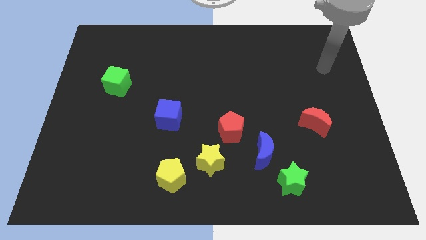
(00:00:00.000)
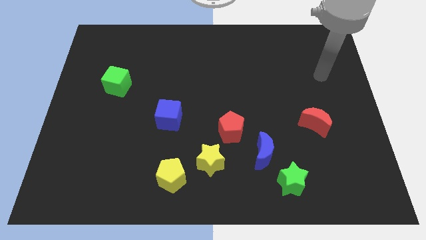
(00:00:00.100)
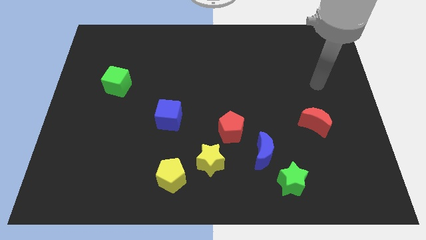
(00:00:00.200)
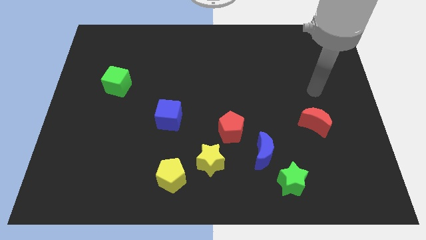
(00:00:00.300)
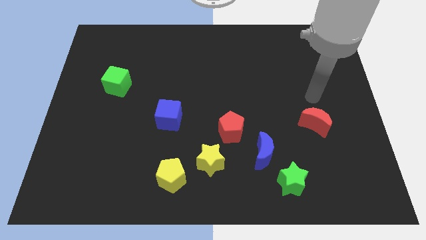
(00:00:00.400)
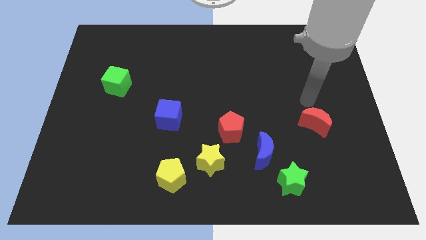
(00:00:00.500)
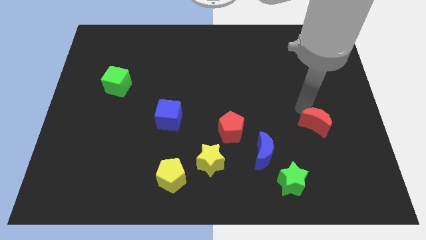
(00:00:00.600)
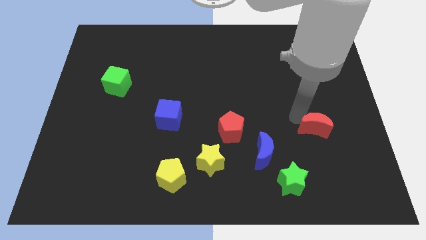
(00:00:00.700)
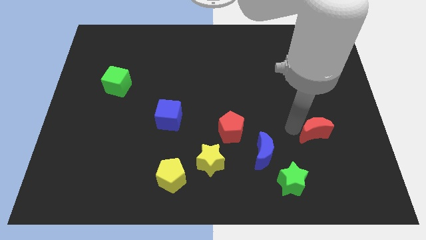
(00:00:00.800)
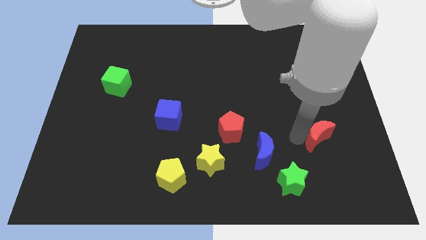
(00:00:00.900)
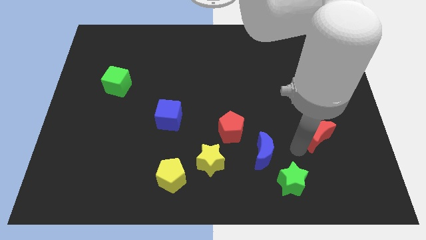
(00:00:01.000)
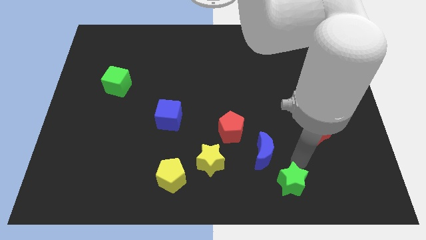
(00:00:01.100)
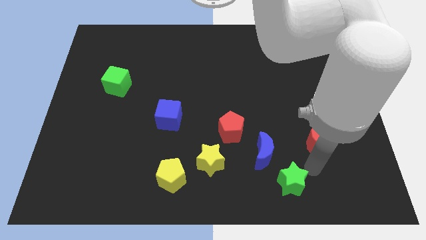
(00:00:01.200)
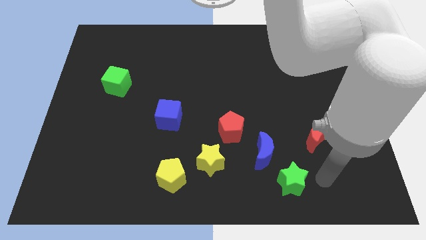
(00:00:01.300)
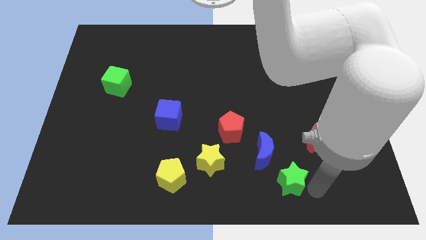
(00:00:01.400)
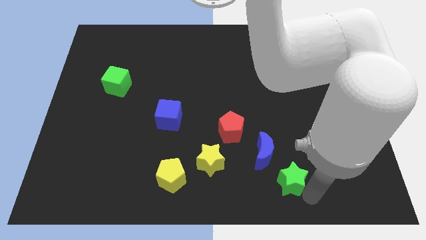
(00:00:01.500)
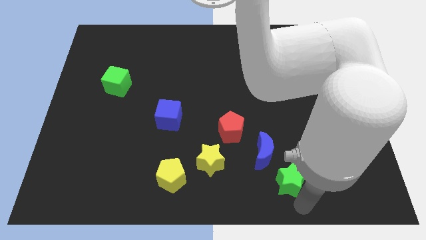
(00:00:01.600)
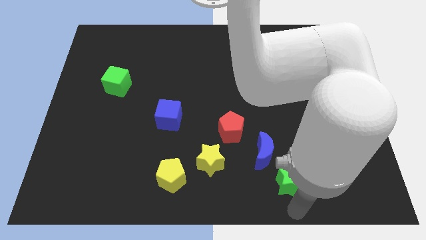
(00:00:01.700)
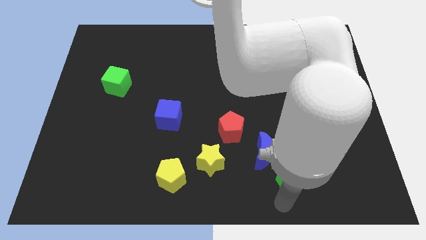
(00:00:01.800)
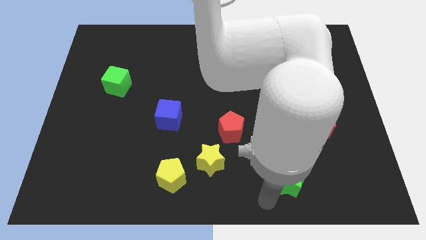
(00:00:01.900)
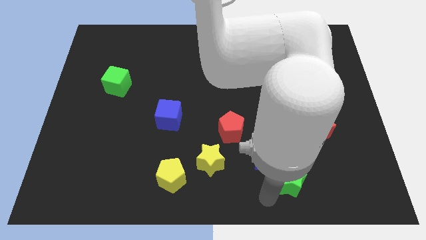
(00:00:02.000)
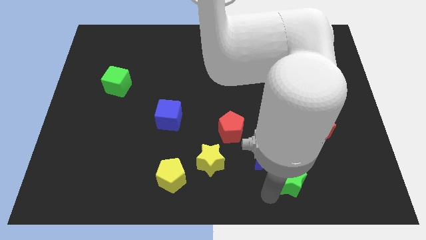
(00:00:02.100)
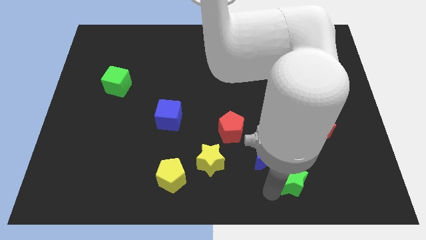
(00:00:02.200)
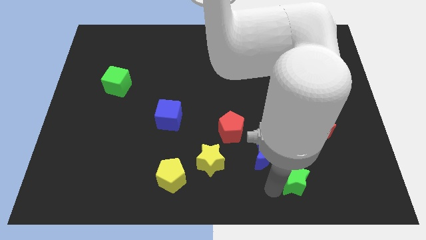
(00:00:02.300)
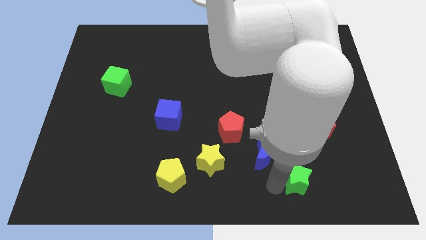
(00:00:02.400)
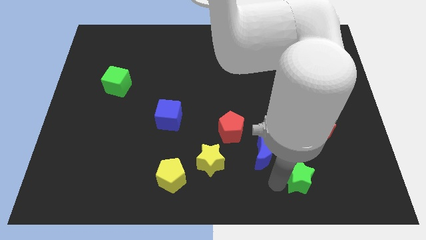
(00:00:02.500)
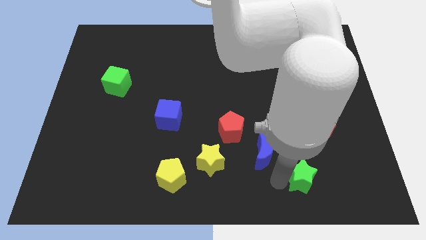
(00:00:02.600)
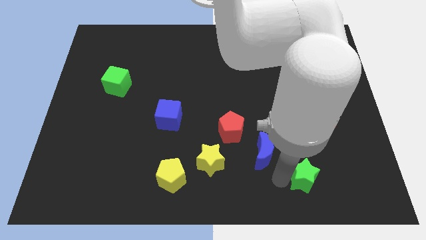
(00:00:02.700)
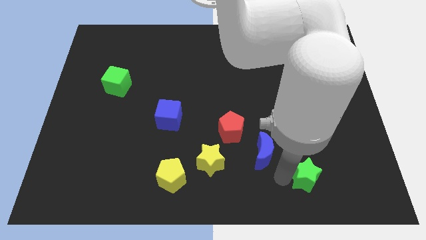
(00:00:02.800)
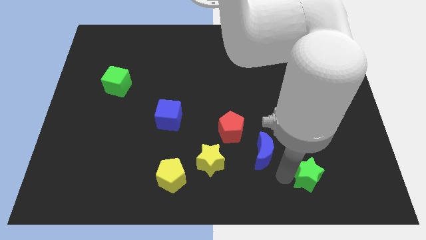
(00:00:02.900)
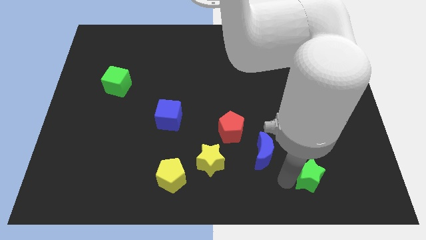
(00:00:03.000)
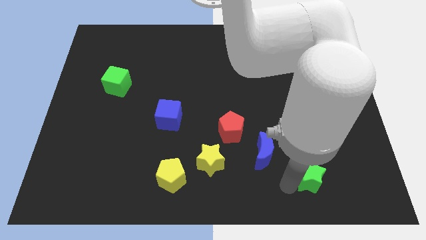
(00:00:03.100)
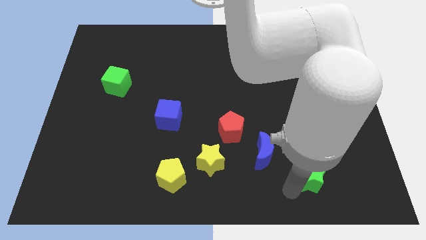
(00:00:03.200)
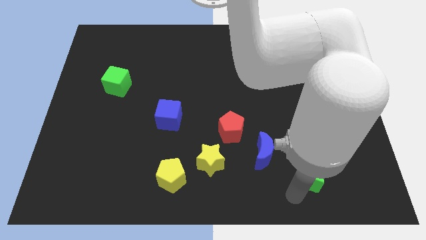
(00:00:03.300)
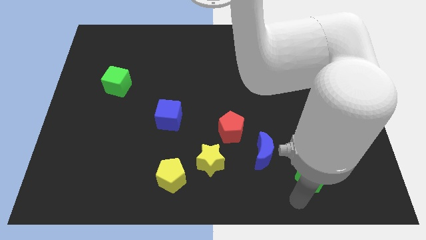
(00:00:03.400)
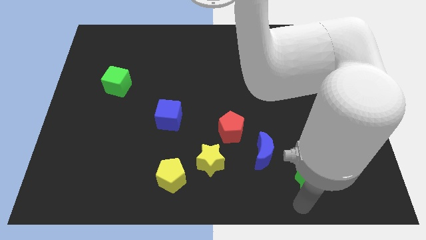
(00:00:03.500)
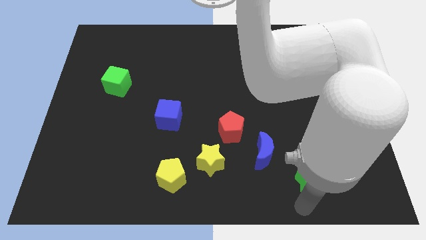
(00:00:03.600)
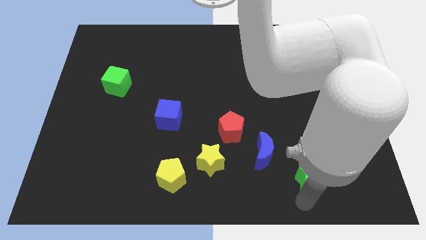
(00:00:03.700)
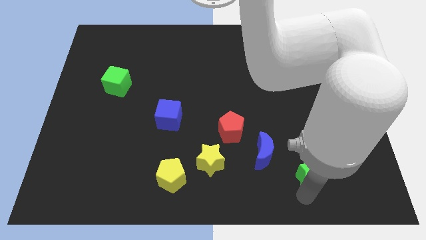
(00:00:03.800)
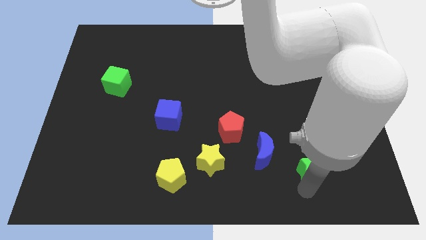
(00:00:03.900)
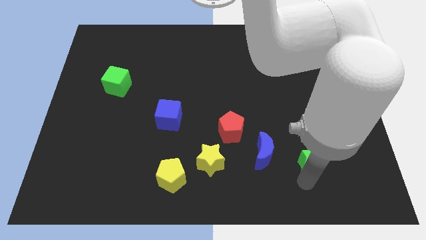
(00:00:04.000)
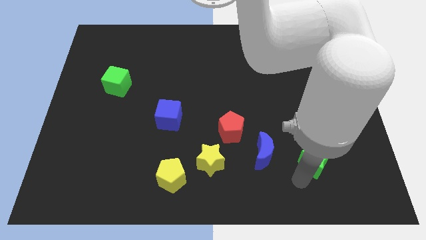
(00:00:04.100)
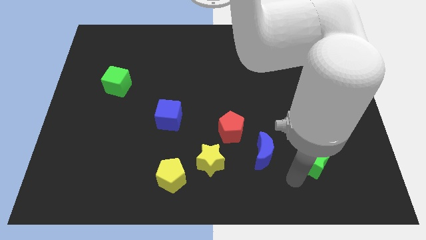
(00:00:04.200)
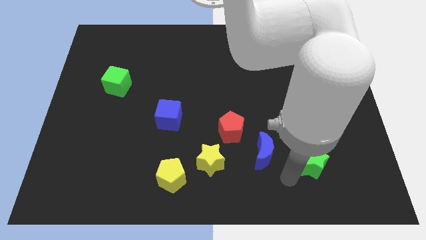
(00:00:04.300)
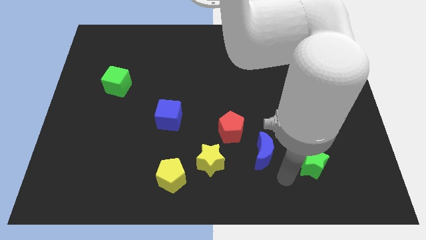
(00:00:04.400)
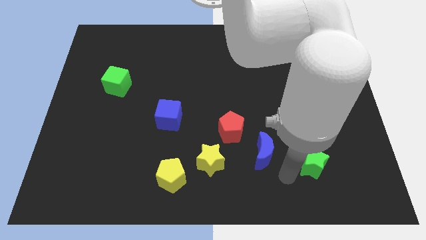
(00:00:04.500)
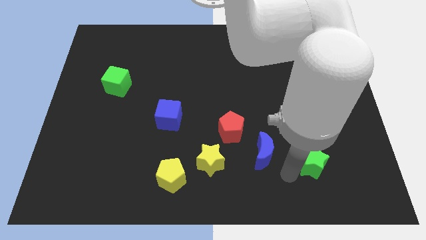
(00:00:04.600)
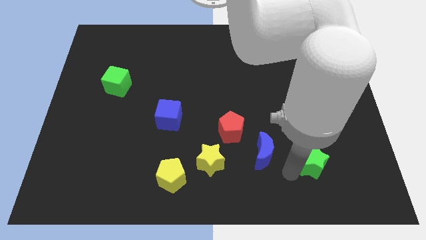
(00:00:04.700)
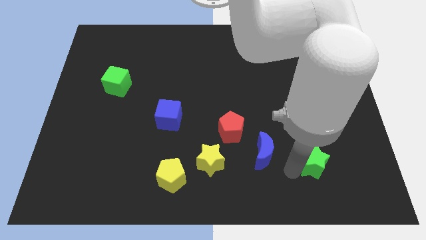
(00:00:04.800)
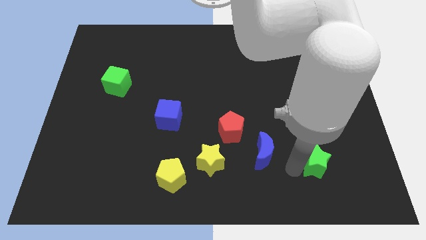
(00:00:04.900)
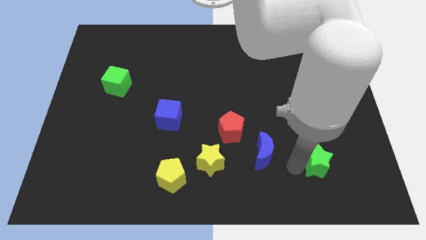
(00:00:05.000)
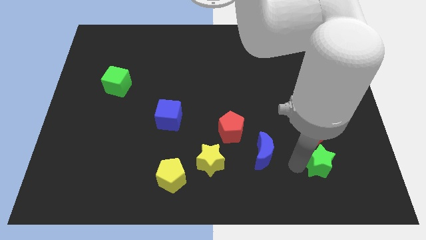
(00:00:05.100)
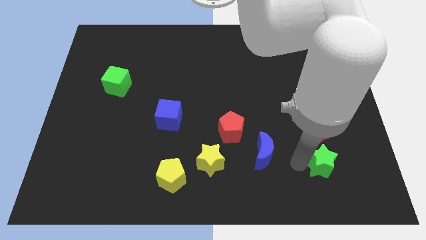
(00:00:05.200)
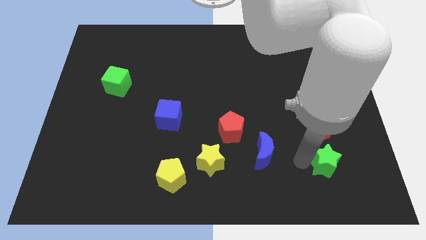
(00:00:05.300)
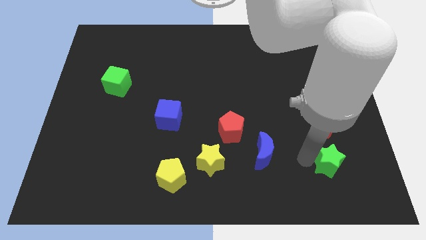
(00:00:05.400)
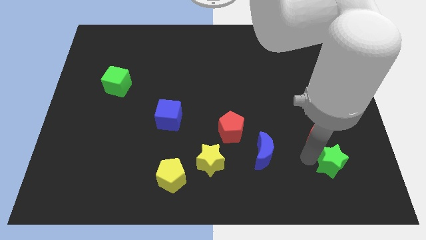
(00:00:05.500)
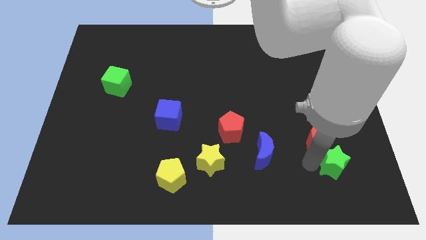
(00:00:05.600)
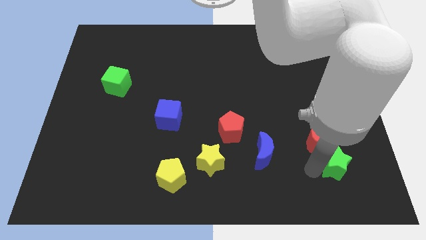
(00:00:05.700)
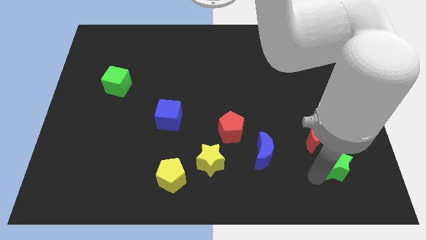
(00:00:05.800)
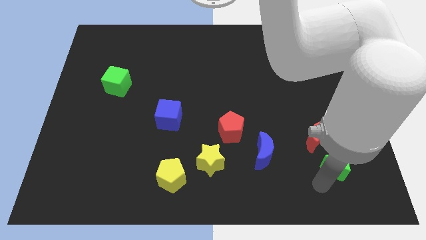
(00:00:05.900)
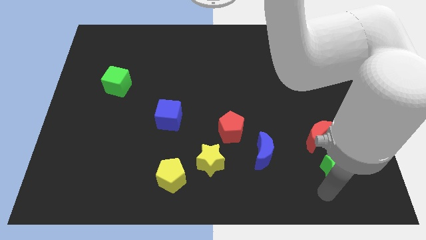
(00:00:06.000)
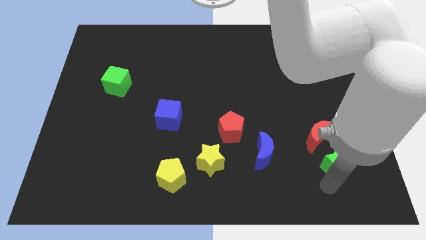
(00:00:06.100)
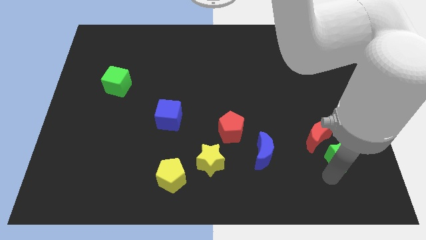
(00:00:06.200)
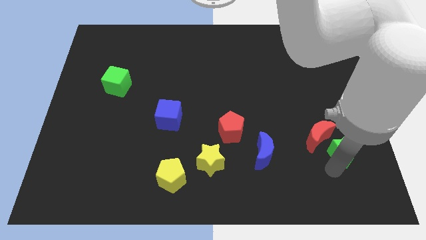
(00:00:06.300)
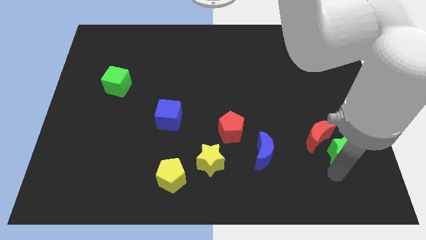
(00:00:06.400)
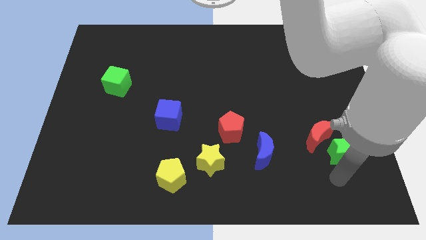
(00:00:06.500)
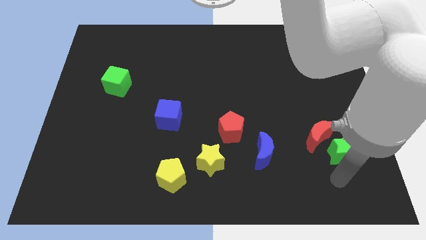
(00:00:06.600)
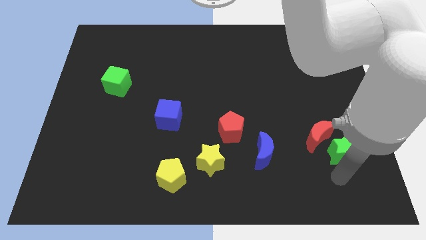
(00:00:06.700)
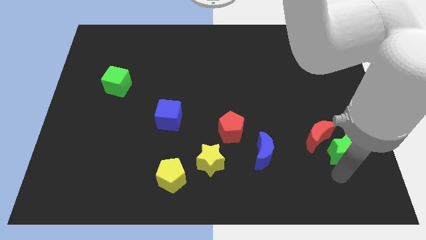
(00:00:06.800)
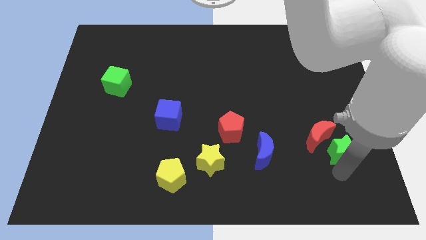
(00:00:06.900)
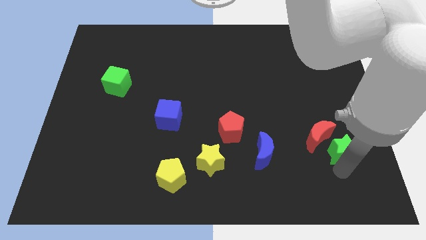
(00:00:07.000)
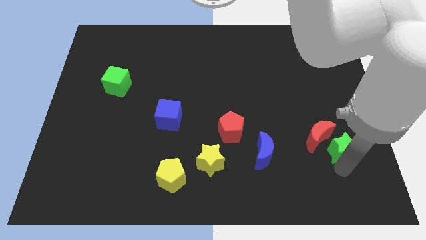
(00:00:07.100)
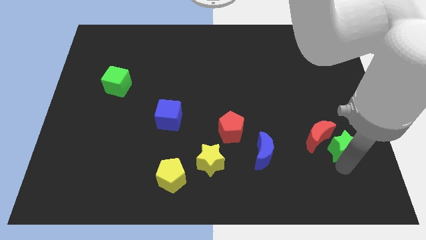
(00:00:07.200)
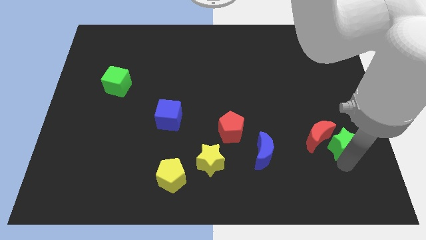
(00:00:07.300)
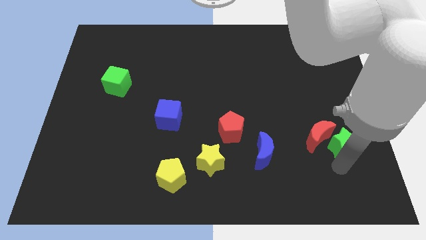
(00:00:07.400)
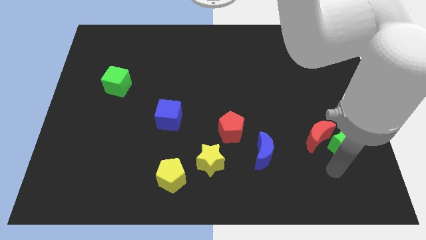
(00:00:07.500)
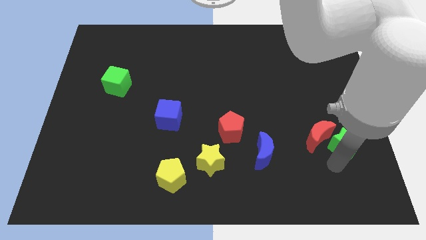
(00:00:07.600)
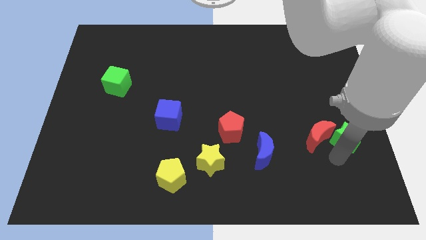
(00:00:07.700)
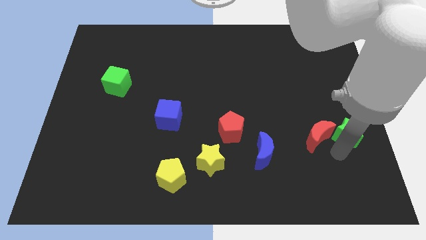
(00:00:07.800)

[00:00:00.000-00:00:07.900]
push the green star to the center right
